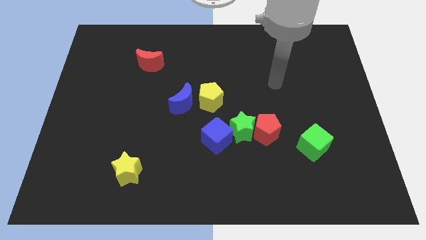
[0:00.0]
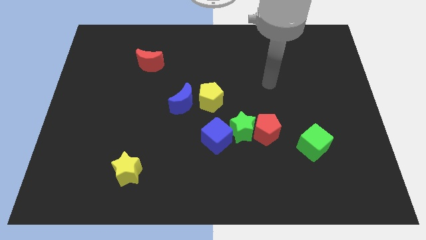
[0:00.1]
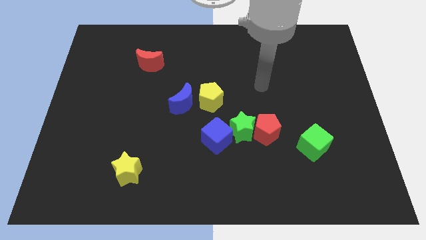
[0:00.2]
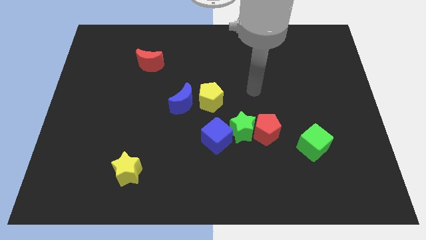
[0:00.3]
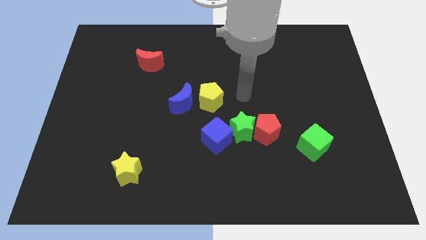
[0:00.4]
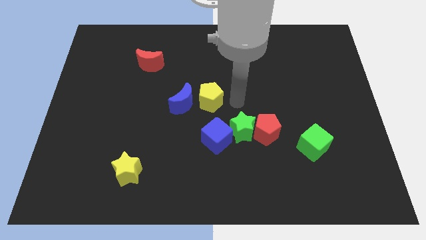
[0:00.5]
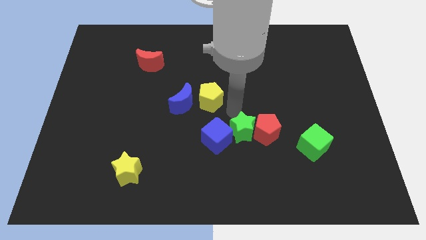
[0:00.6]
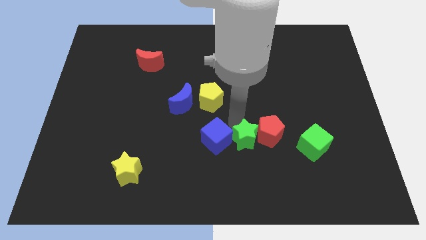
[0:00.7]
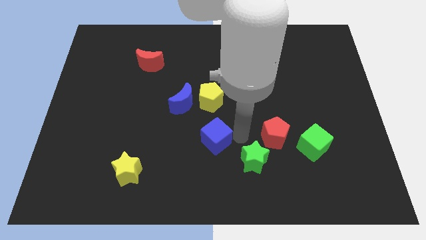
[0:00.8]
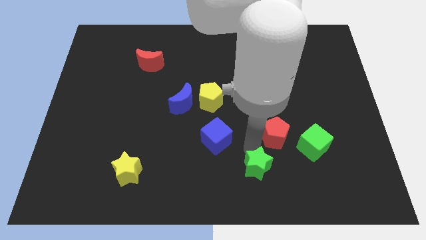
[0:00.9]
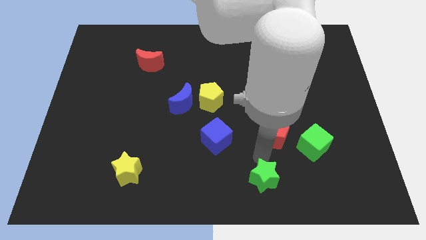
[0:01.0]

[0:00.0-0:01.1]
separate the red pentagon from the green star

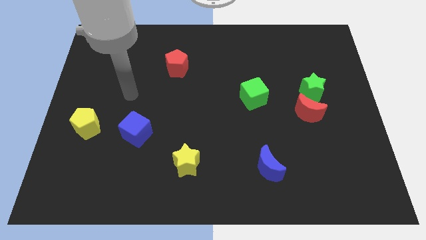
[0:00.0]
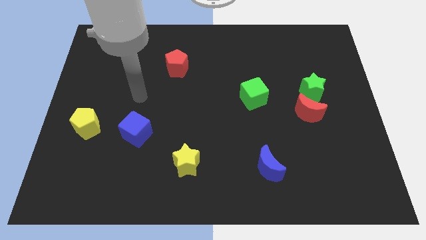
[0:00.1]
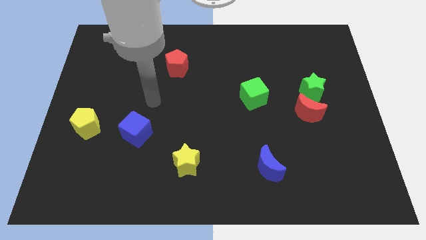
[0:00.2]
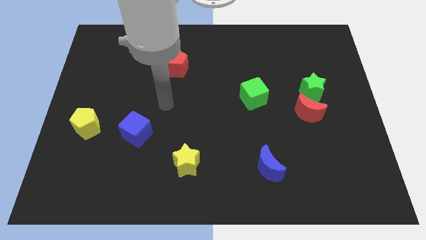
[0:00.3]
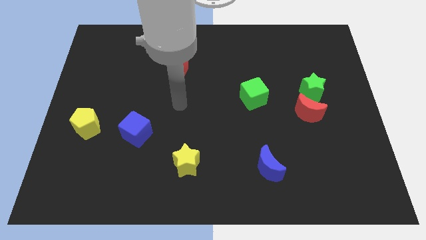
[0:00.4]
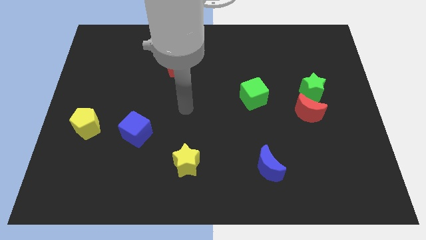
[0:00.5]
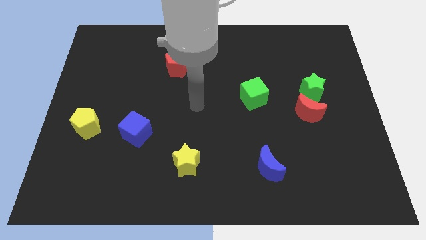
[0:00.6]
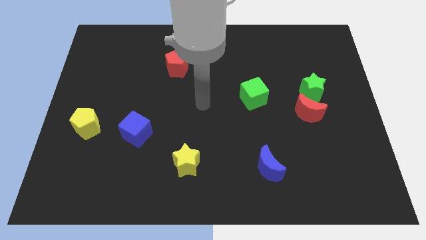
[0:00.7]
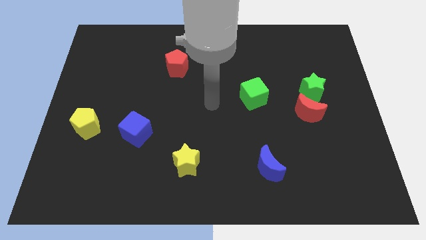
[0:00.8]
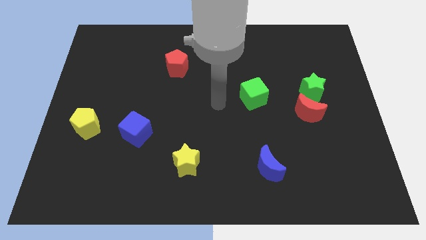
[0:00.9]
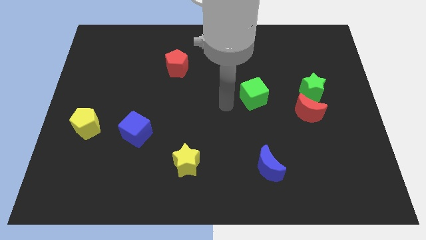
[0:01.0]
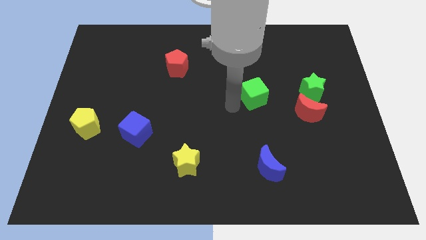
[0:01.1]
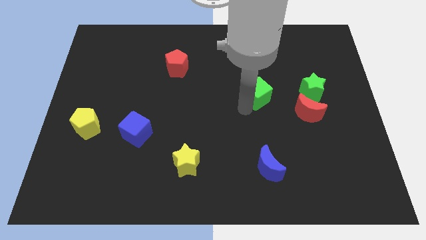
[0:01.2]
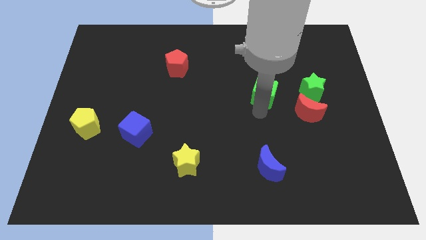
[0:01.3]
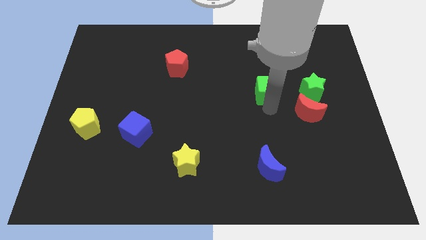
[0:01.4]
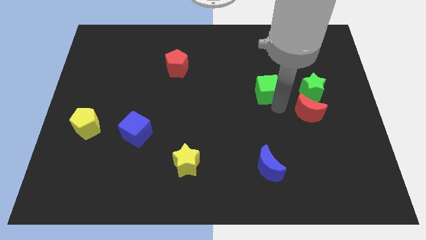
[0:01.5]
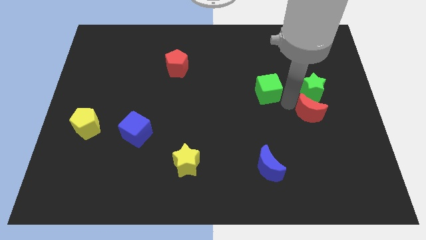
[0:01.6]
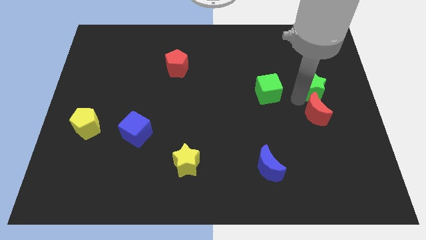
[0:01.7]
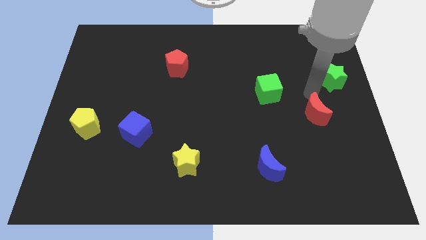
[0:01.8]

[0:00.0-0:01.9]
pull the red moon apart from the green star

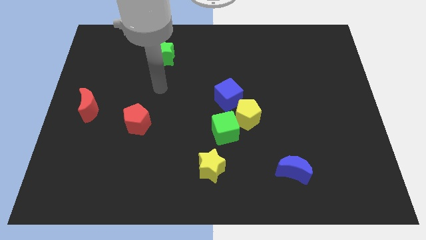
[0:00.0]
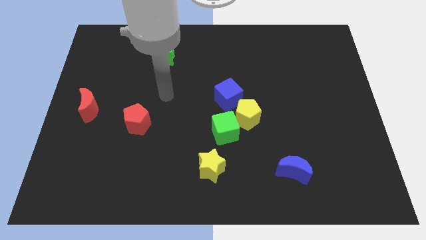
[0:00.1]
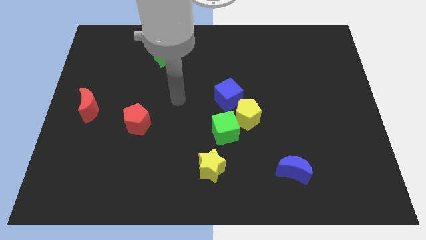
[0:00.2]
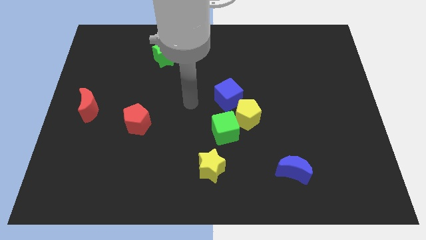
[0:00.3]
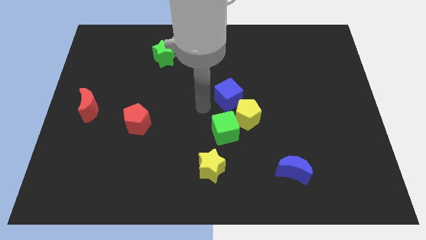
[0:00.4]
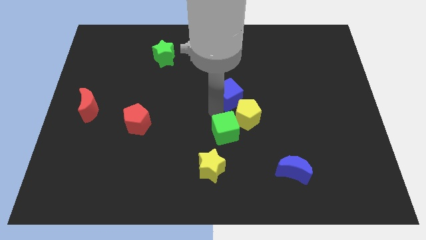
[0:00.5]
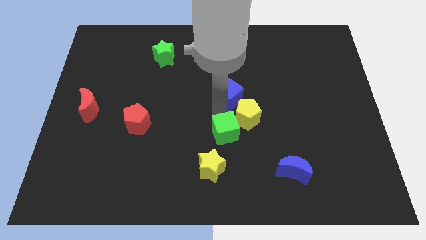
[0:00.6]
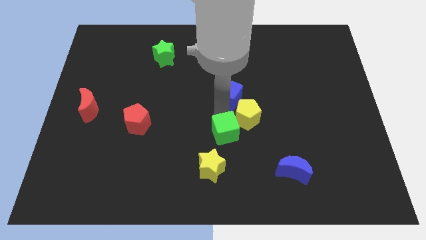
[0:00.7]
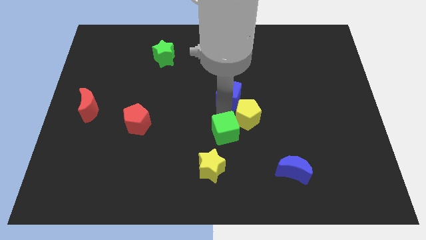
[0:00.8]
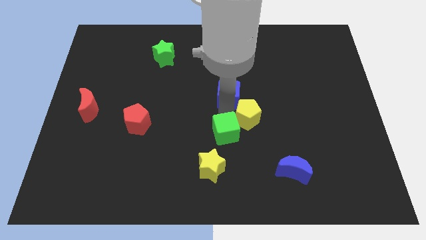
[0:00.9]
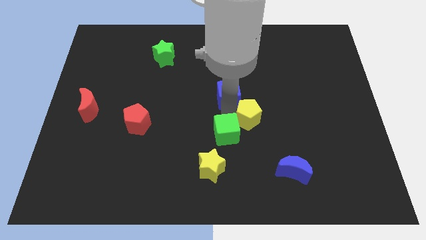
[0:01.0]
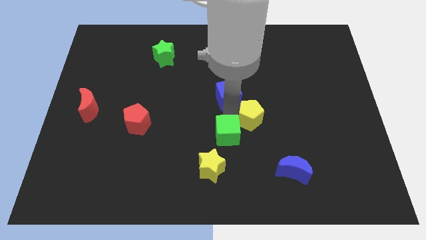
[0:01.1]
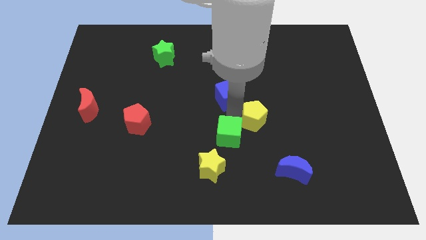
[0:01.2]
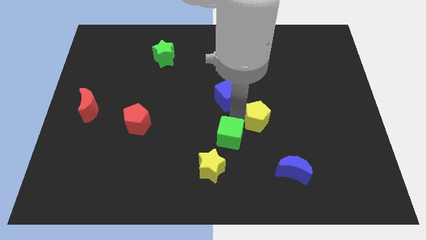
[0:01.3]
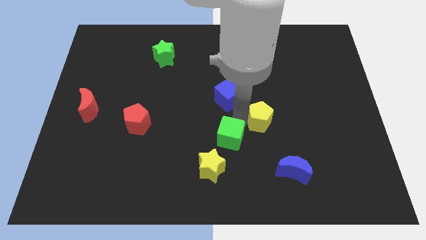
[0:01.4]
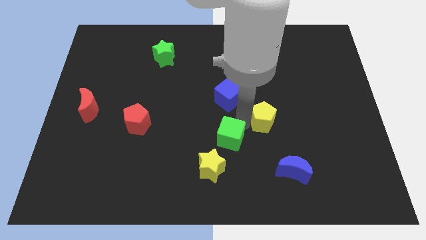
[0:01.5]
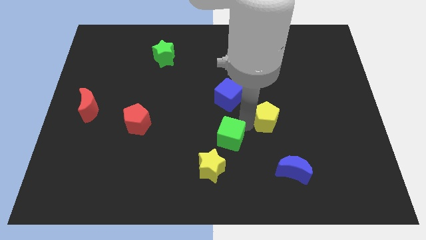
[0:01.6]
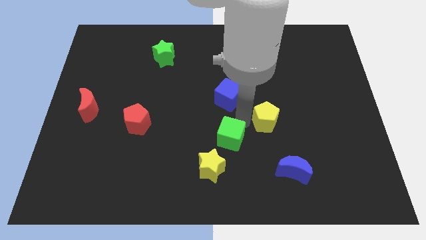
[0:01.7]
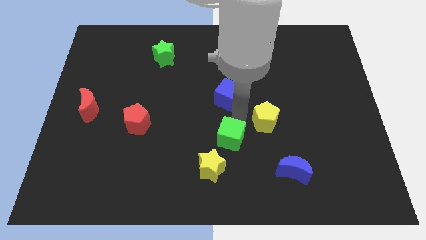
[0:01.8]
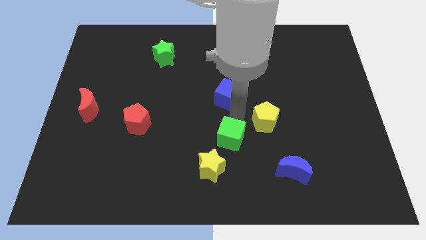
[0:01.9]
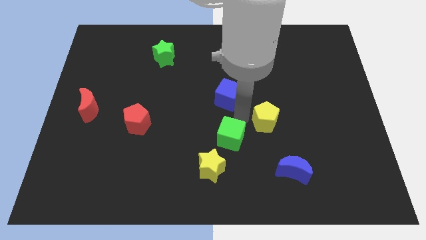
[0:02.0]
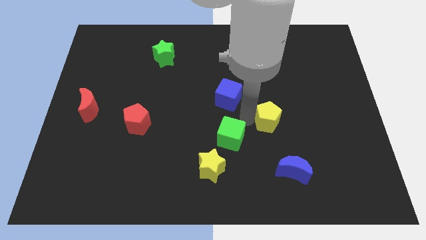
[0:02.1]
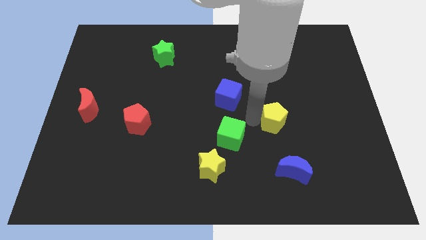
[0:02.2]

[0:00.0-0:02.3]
move the yellow pentagon away from the green cube and blue cube

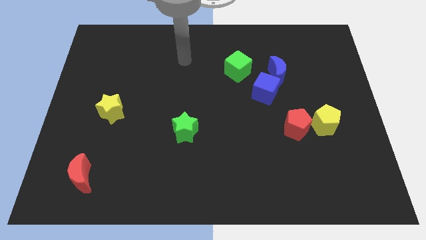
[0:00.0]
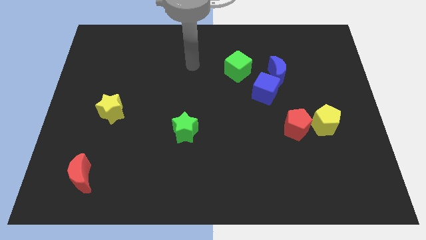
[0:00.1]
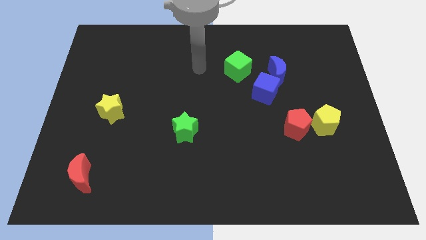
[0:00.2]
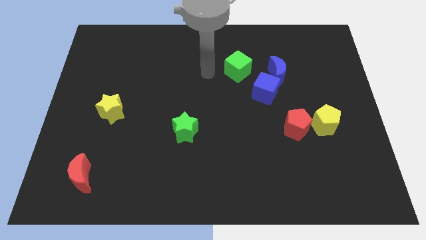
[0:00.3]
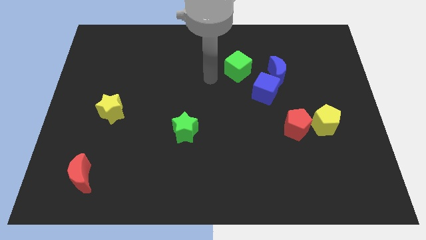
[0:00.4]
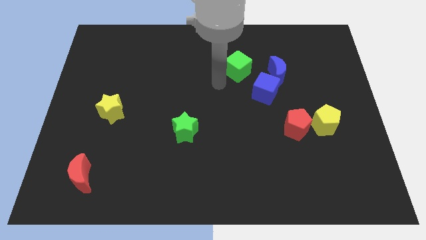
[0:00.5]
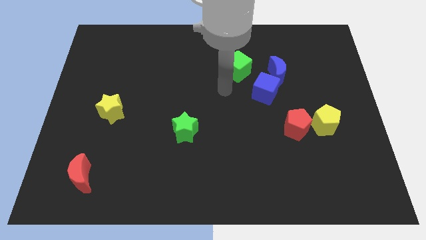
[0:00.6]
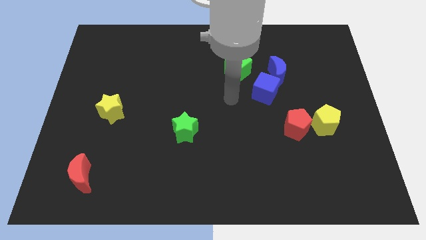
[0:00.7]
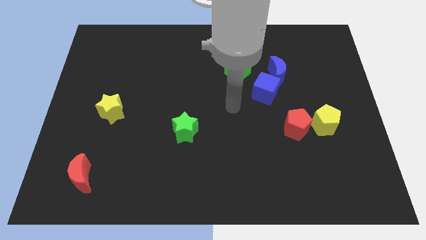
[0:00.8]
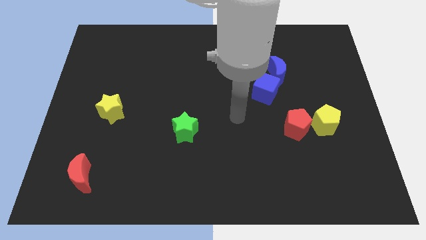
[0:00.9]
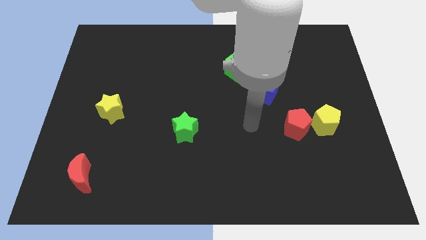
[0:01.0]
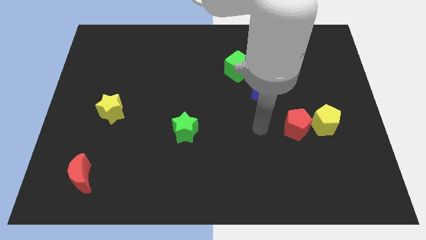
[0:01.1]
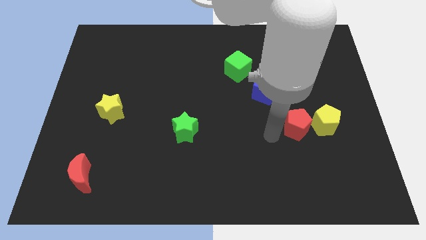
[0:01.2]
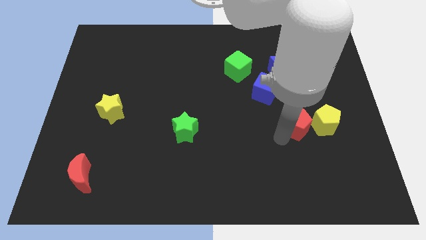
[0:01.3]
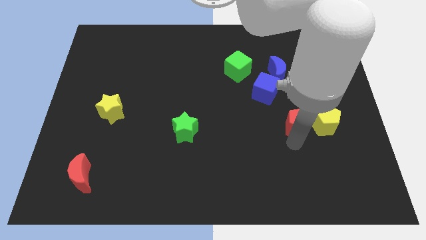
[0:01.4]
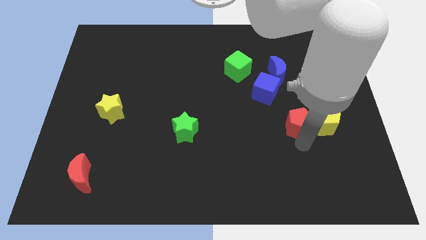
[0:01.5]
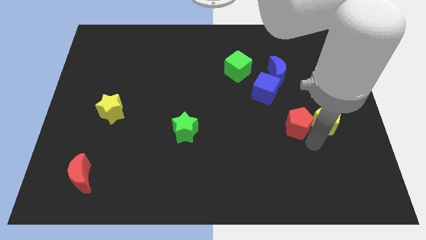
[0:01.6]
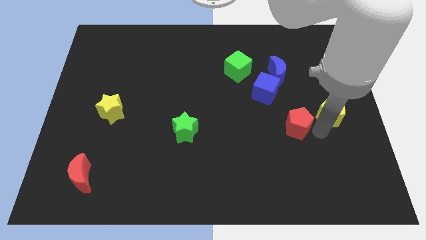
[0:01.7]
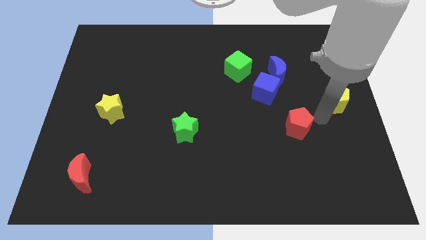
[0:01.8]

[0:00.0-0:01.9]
pull the red pentagon apart from the yellow pentagon

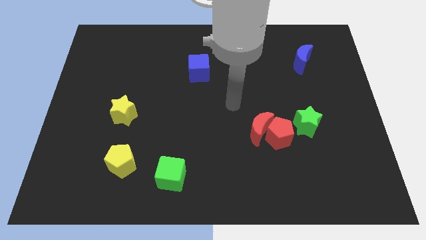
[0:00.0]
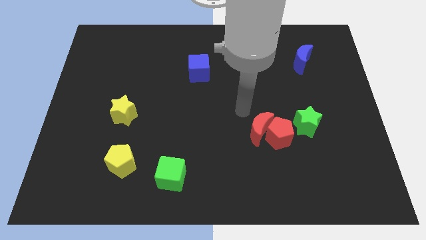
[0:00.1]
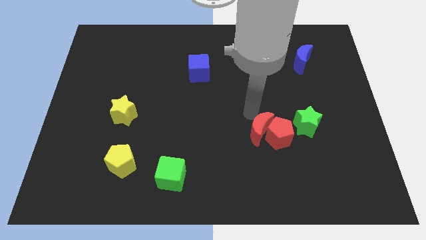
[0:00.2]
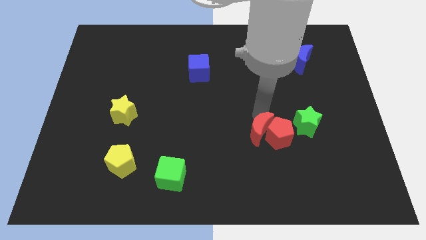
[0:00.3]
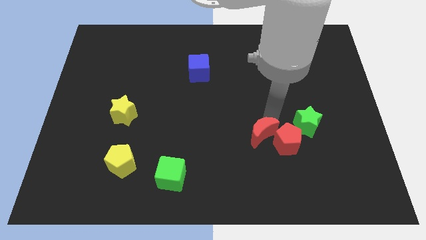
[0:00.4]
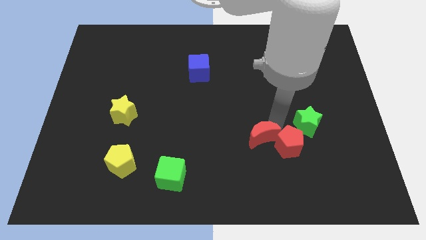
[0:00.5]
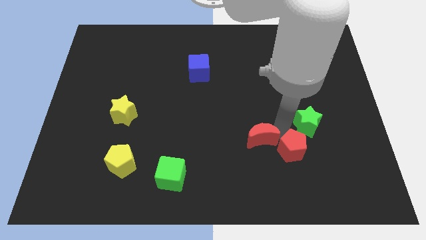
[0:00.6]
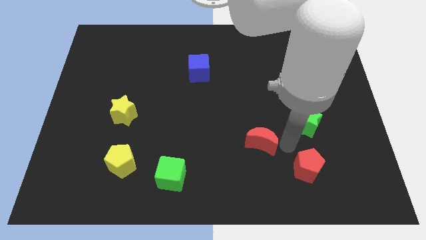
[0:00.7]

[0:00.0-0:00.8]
separate the red moon from the red pentagon

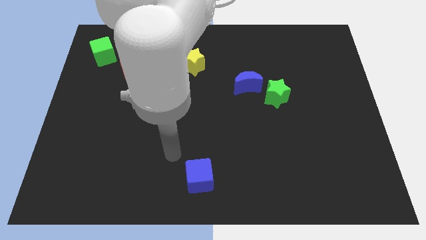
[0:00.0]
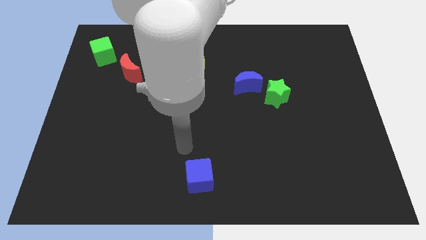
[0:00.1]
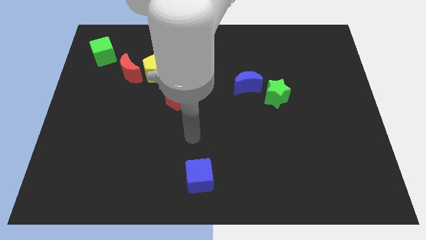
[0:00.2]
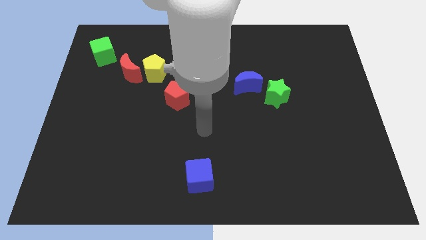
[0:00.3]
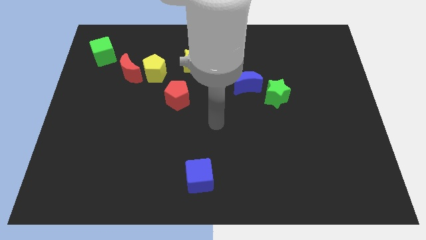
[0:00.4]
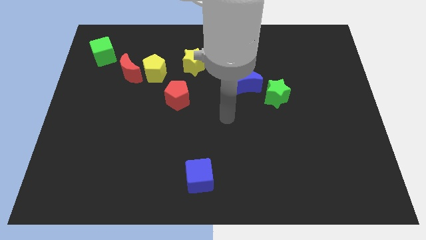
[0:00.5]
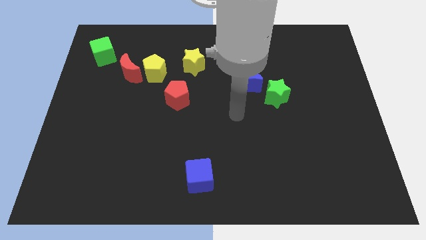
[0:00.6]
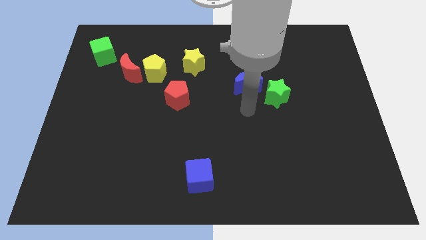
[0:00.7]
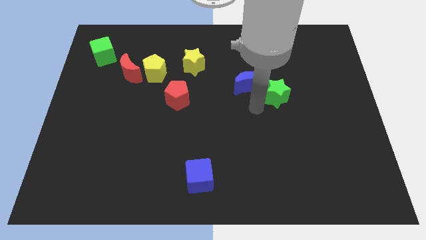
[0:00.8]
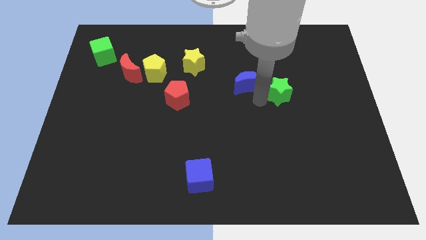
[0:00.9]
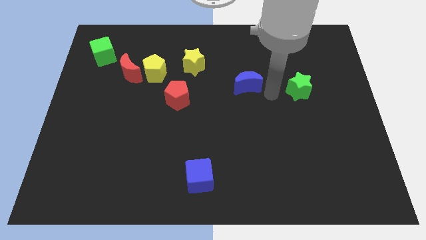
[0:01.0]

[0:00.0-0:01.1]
separate the blue moon from the green star

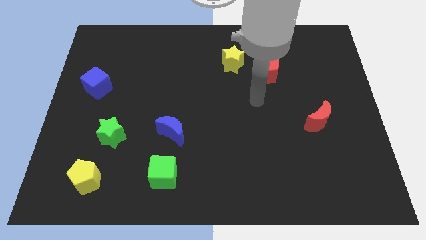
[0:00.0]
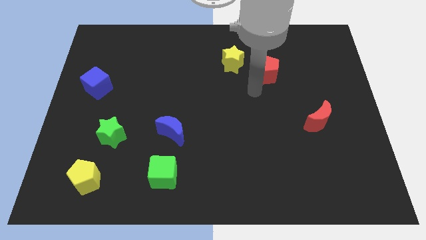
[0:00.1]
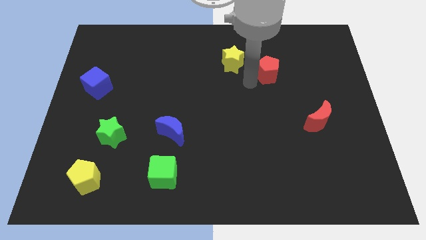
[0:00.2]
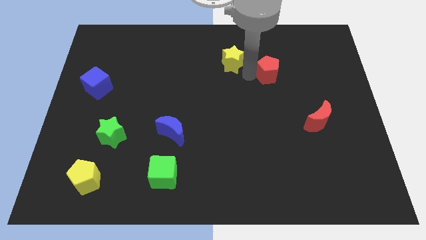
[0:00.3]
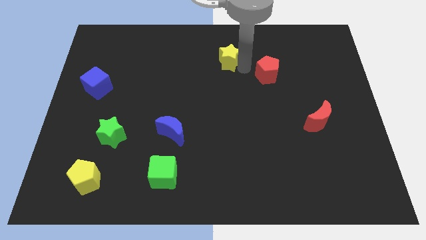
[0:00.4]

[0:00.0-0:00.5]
pull the red pentagon apart from the yellow star
